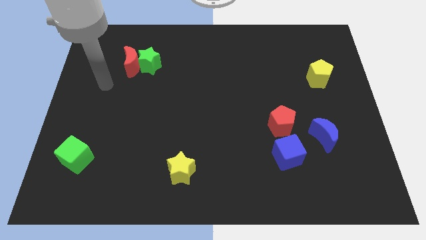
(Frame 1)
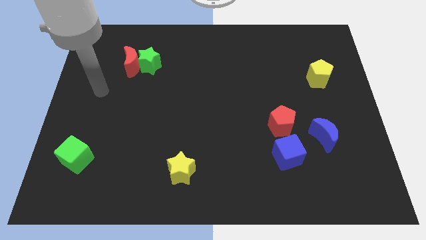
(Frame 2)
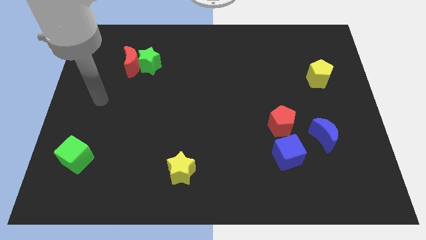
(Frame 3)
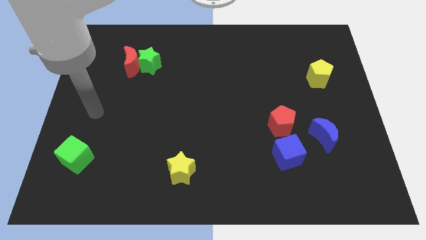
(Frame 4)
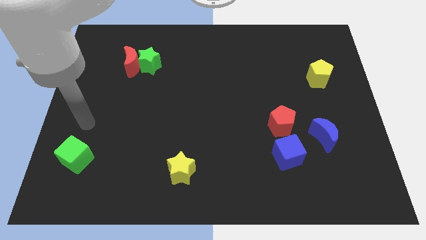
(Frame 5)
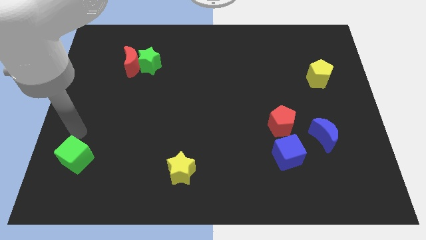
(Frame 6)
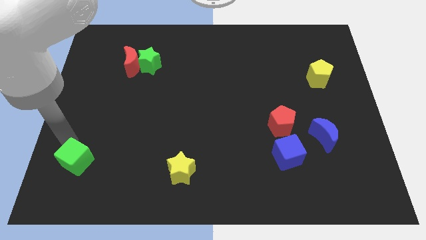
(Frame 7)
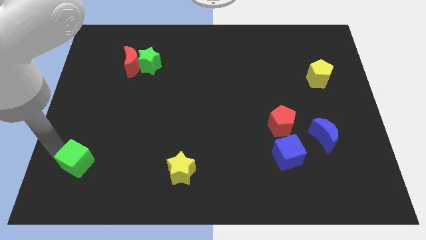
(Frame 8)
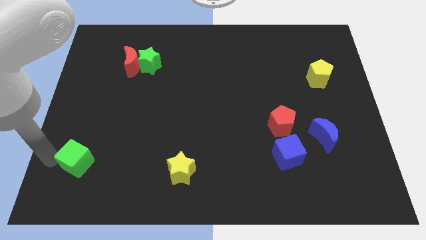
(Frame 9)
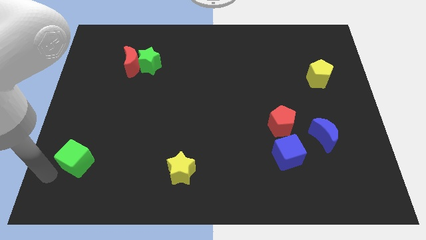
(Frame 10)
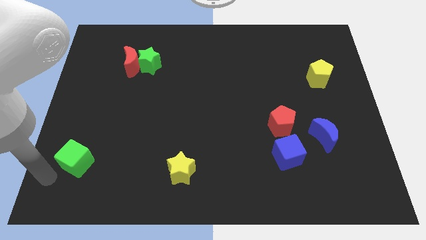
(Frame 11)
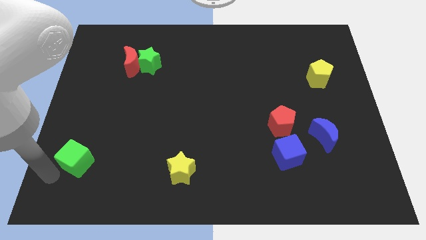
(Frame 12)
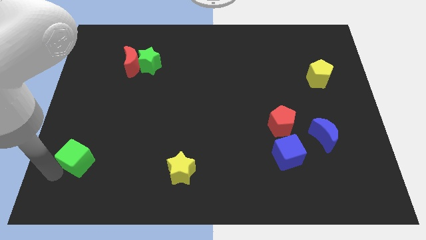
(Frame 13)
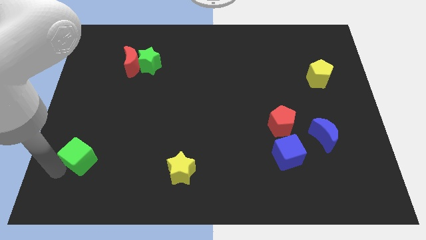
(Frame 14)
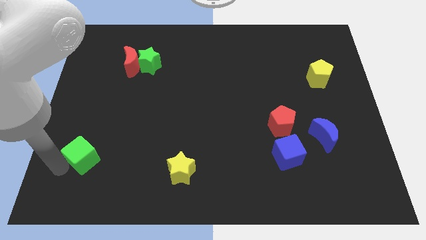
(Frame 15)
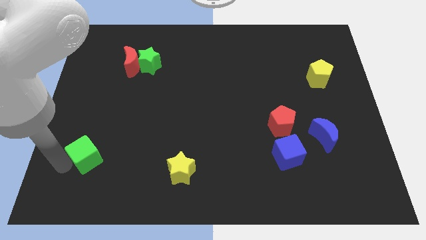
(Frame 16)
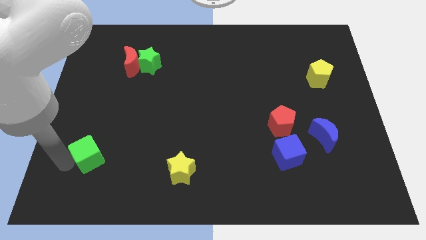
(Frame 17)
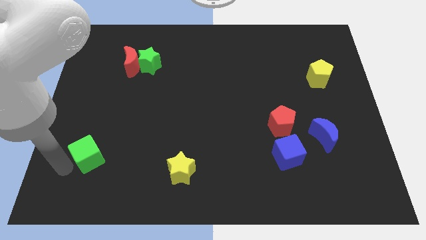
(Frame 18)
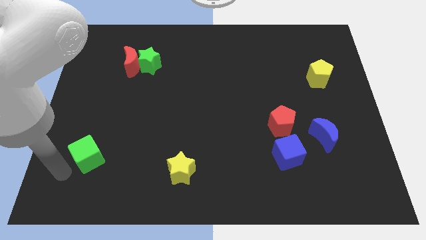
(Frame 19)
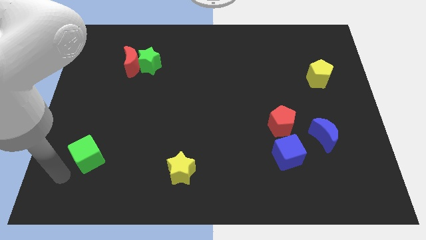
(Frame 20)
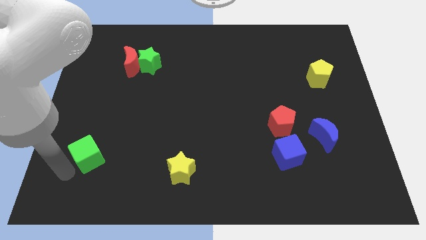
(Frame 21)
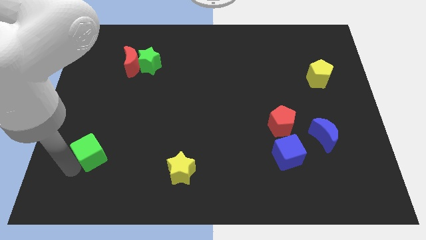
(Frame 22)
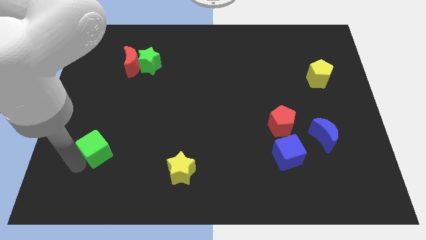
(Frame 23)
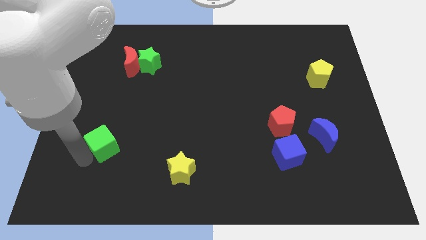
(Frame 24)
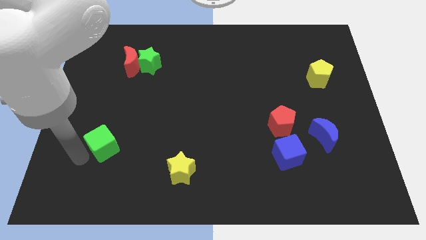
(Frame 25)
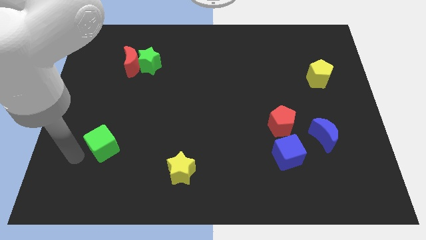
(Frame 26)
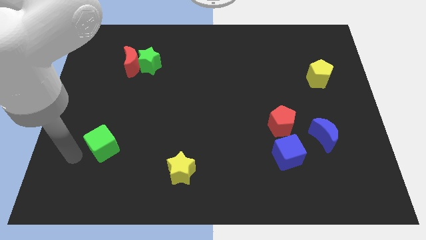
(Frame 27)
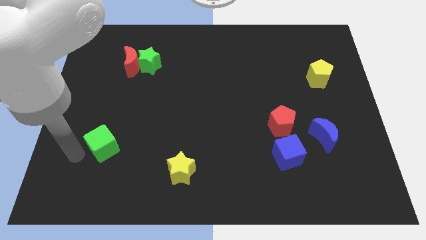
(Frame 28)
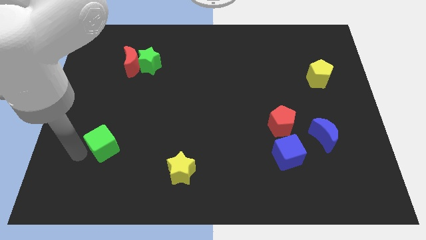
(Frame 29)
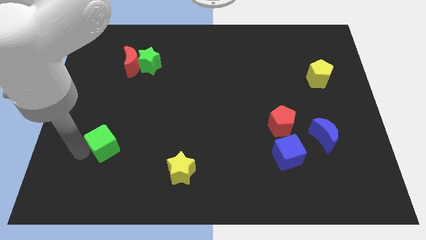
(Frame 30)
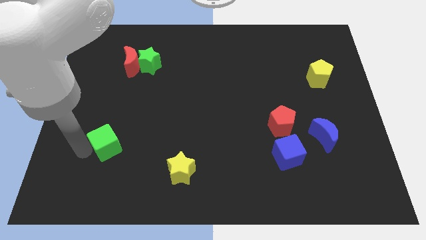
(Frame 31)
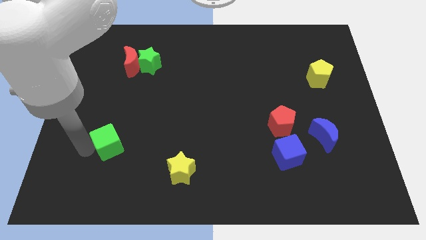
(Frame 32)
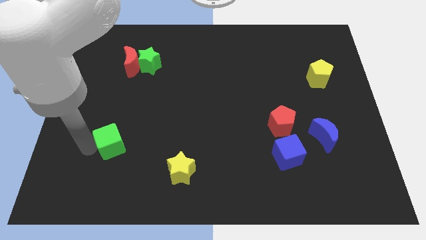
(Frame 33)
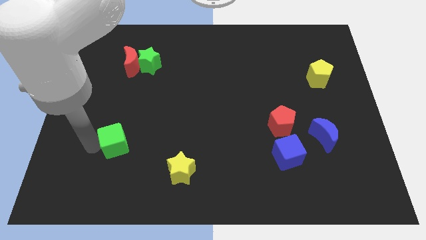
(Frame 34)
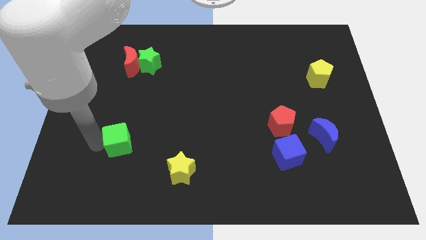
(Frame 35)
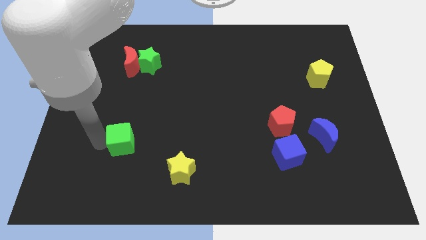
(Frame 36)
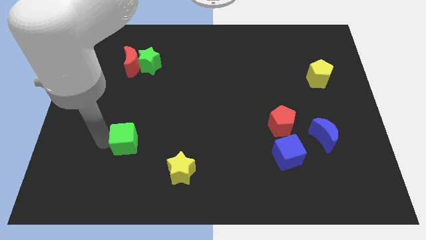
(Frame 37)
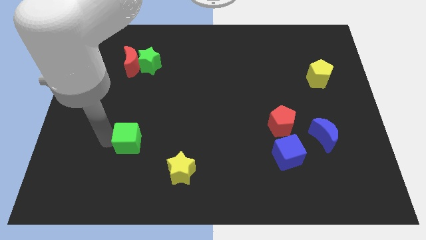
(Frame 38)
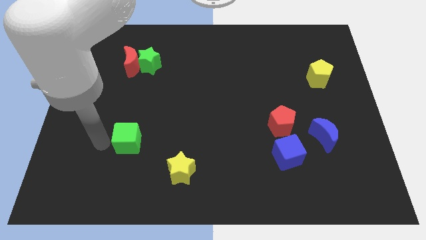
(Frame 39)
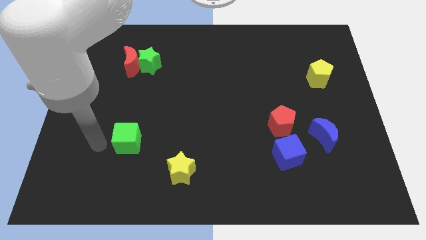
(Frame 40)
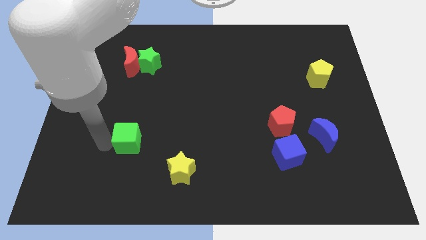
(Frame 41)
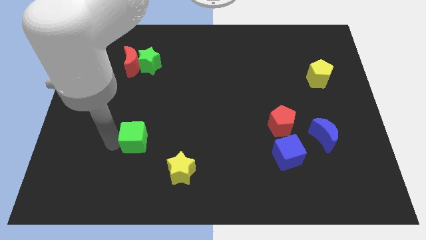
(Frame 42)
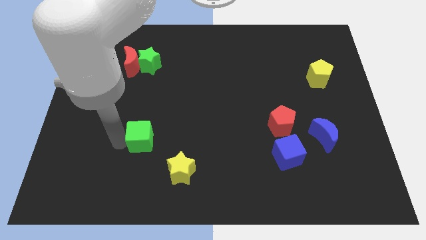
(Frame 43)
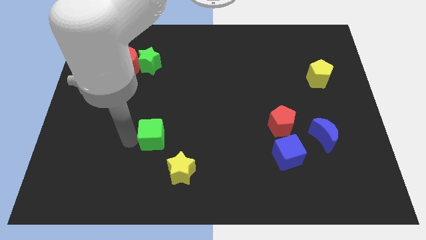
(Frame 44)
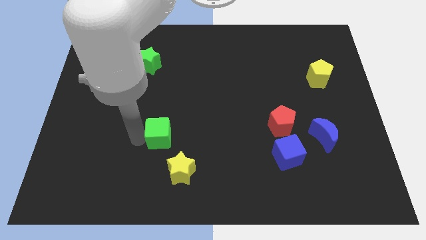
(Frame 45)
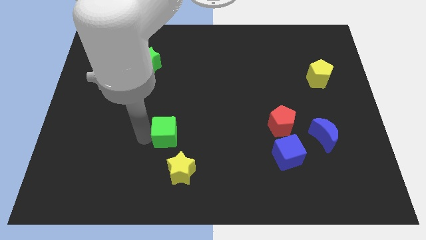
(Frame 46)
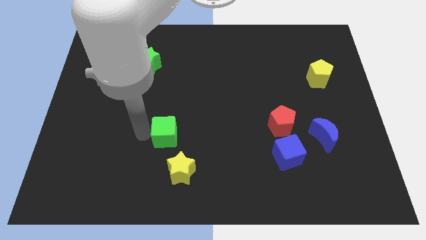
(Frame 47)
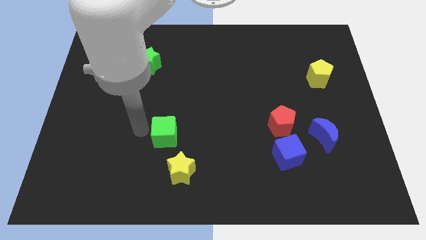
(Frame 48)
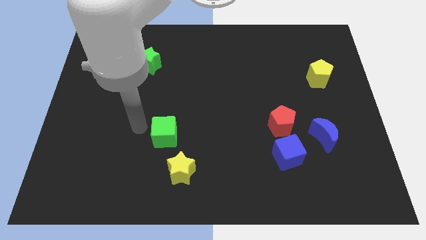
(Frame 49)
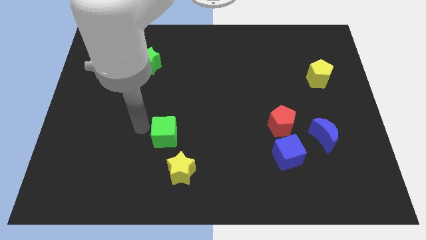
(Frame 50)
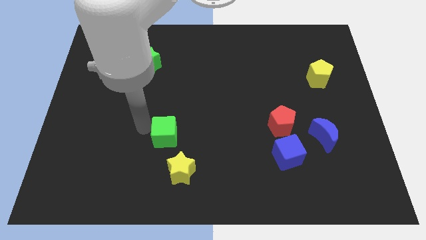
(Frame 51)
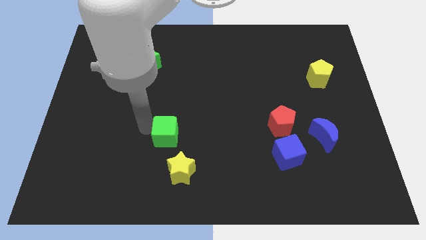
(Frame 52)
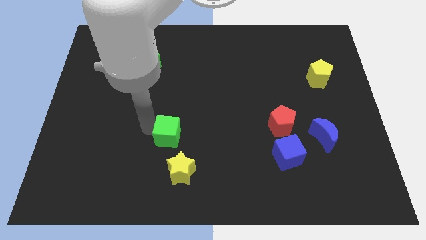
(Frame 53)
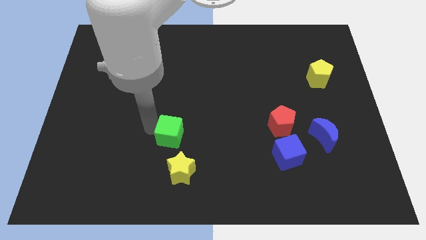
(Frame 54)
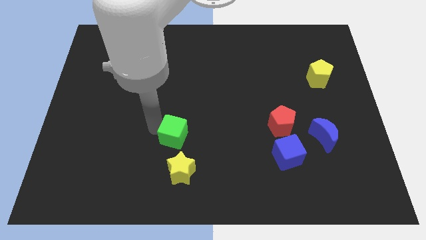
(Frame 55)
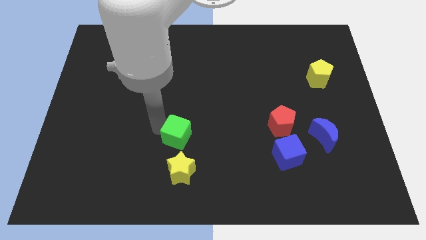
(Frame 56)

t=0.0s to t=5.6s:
push the green cube right

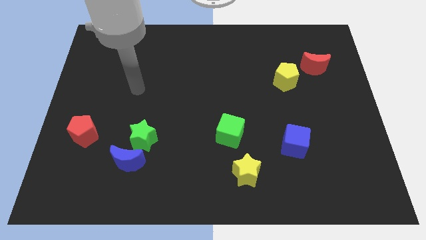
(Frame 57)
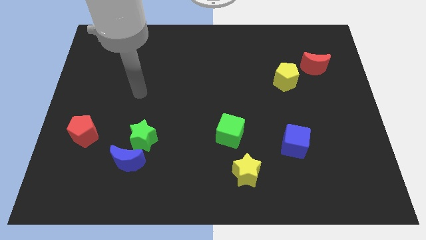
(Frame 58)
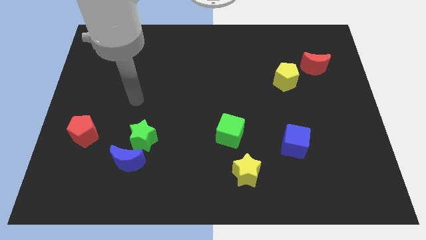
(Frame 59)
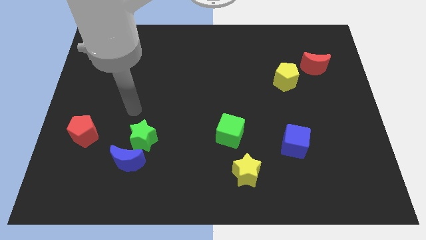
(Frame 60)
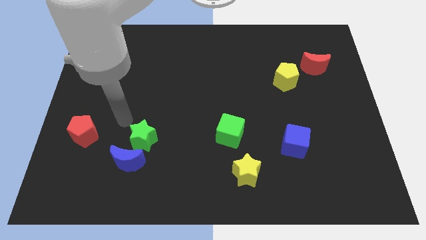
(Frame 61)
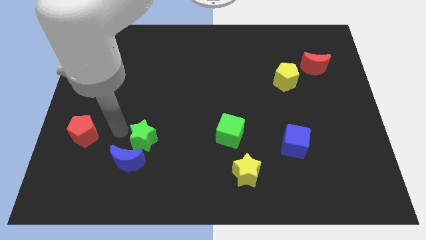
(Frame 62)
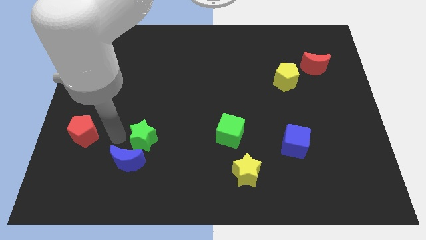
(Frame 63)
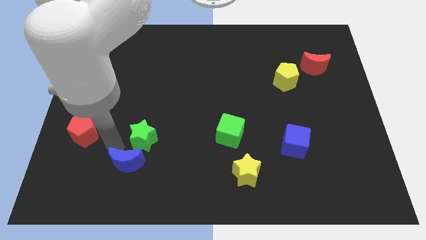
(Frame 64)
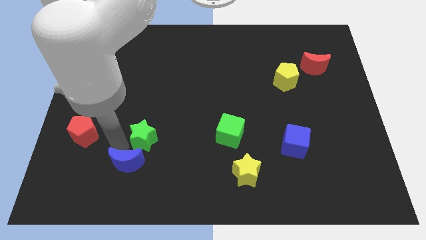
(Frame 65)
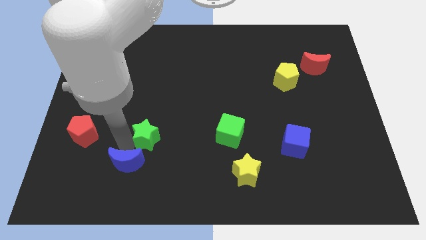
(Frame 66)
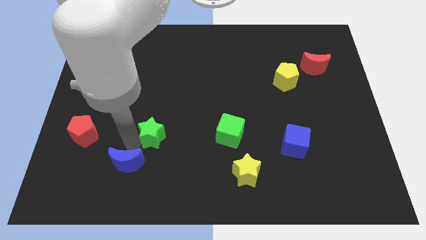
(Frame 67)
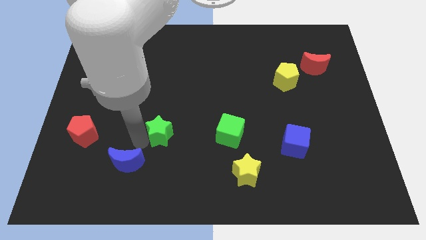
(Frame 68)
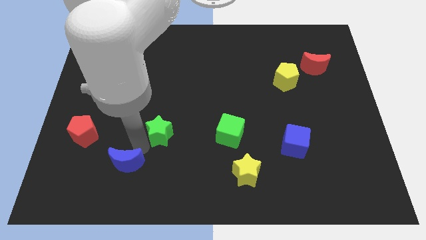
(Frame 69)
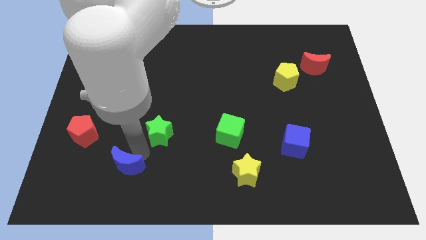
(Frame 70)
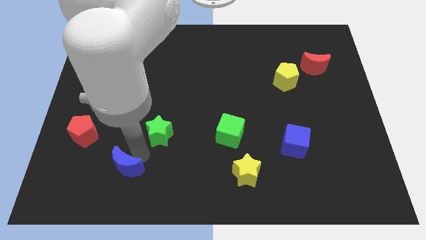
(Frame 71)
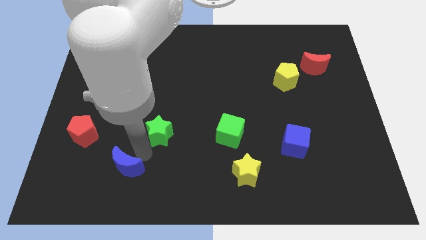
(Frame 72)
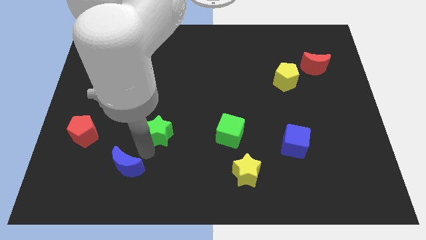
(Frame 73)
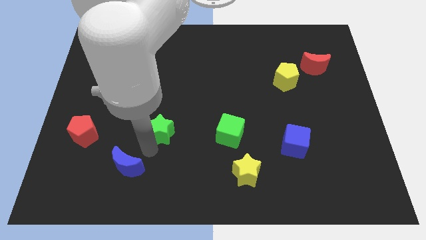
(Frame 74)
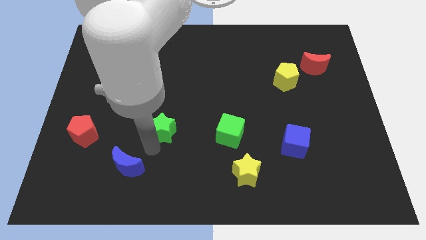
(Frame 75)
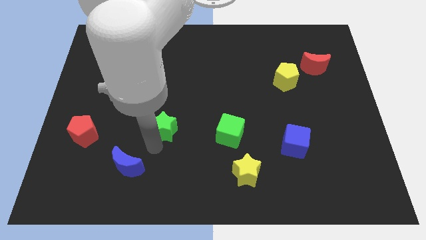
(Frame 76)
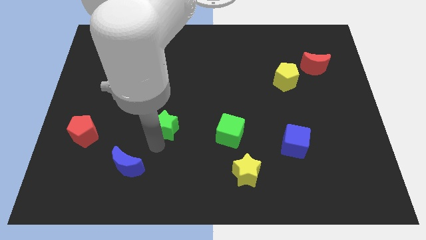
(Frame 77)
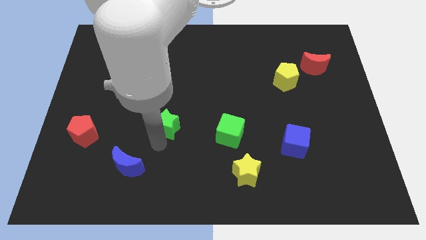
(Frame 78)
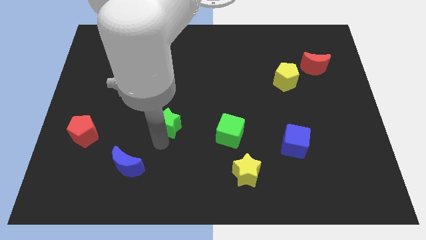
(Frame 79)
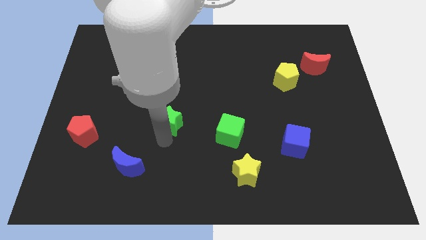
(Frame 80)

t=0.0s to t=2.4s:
push the green star a little bit diagonally upwards and to the right

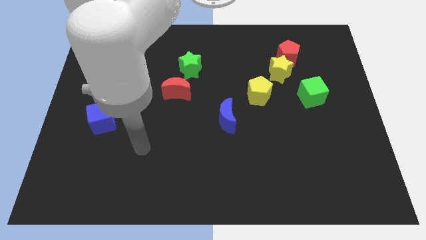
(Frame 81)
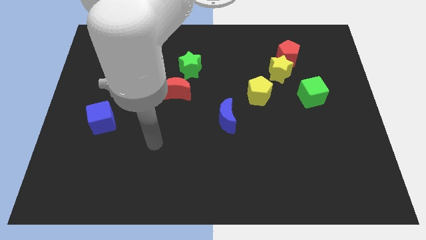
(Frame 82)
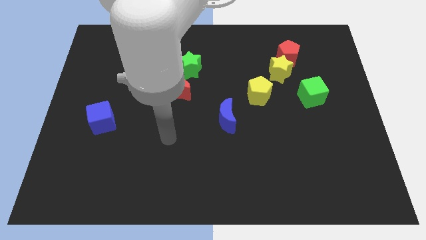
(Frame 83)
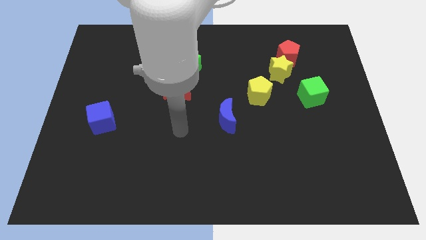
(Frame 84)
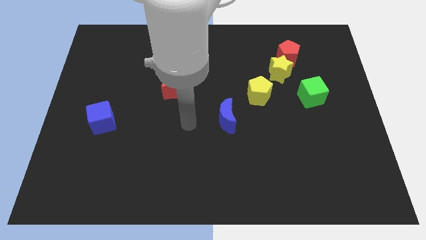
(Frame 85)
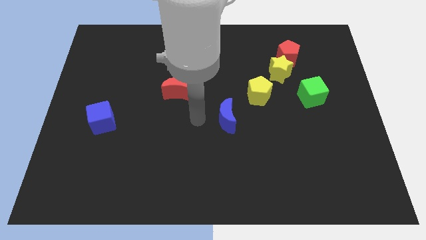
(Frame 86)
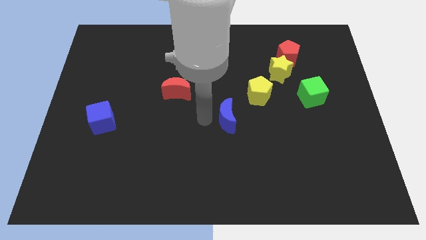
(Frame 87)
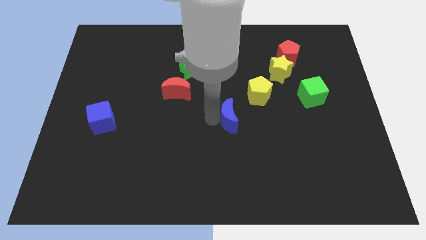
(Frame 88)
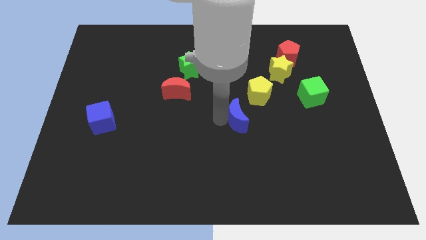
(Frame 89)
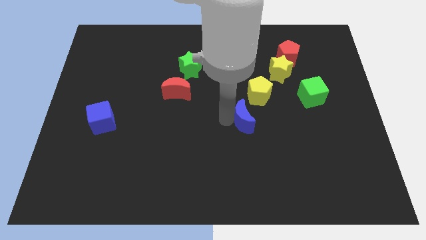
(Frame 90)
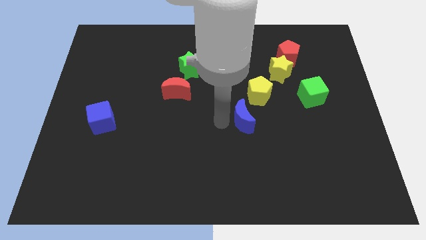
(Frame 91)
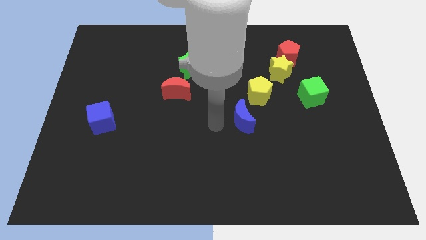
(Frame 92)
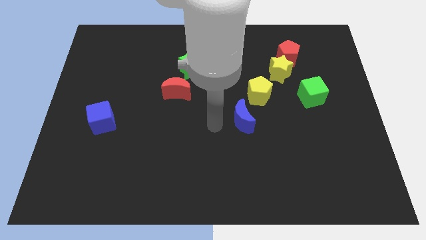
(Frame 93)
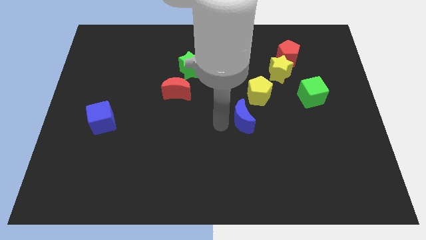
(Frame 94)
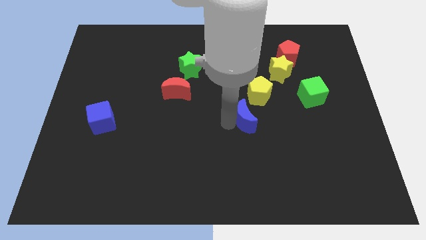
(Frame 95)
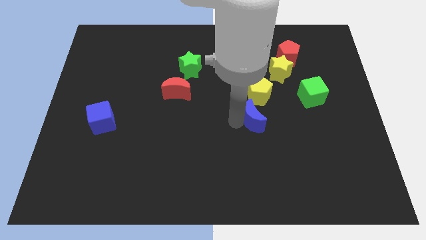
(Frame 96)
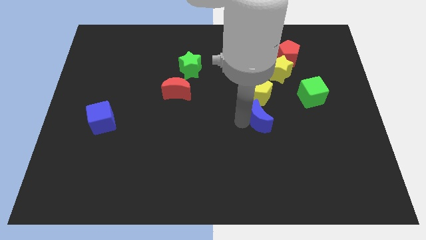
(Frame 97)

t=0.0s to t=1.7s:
push the blue moon a little right
